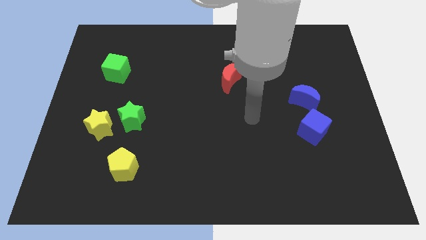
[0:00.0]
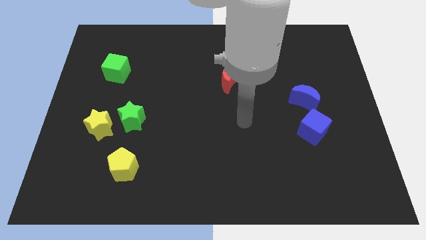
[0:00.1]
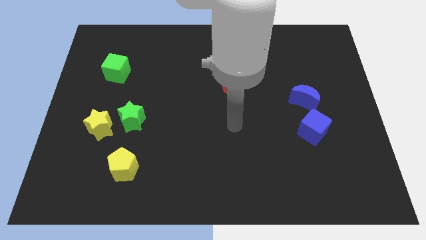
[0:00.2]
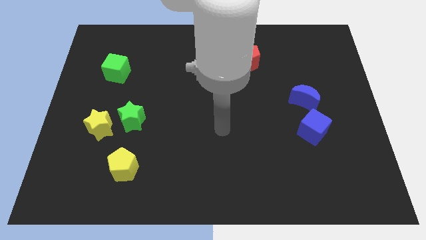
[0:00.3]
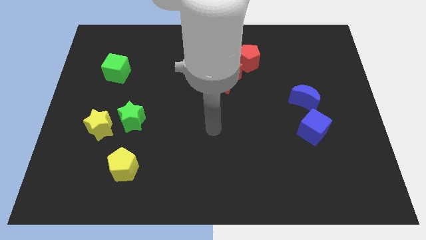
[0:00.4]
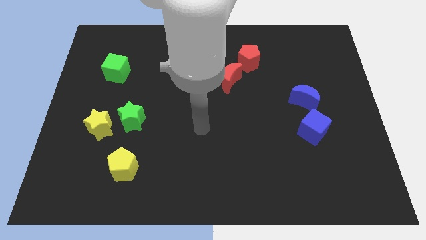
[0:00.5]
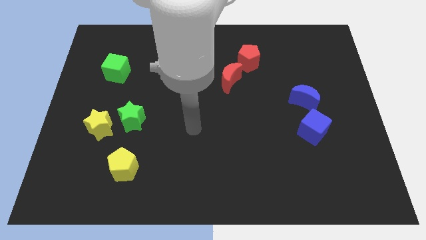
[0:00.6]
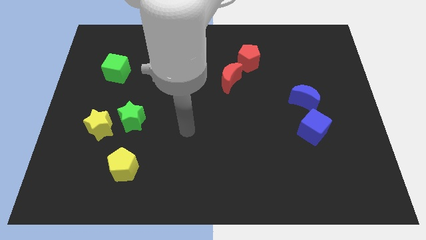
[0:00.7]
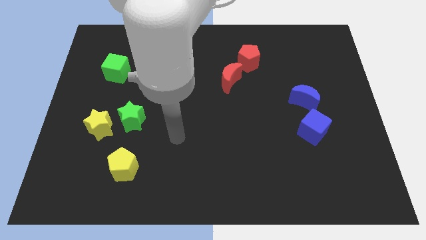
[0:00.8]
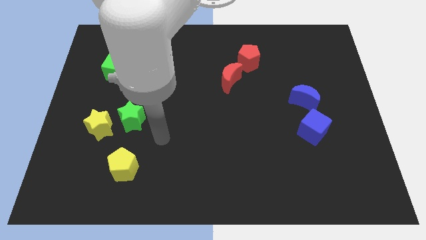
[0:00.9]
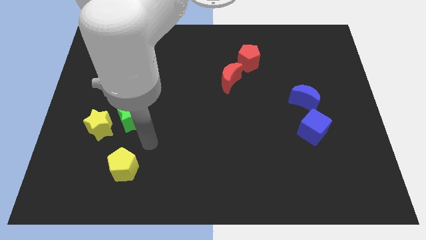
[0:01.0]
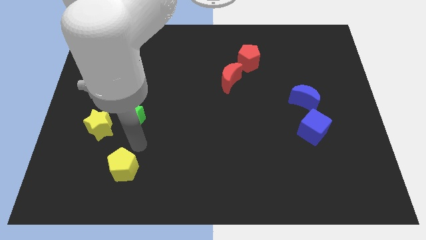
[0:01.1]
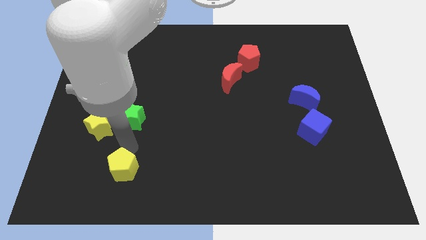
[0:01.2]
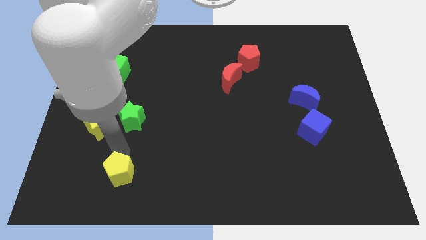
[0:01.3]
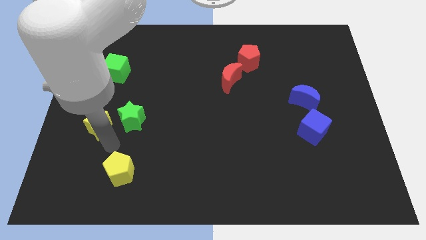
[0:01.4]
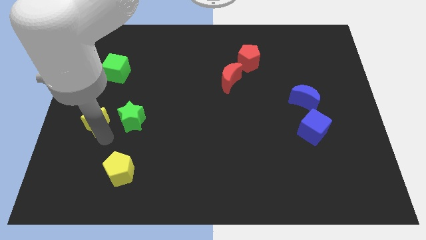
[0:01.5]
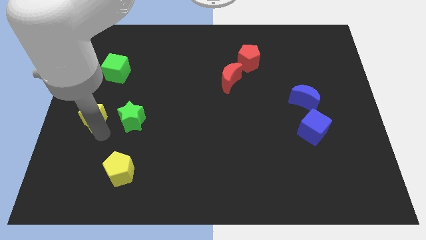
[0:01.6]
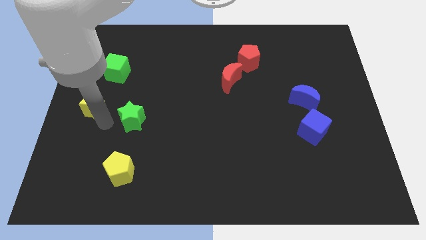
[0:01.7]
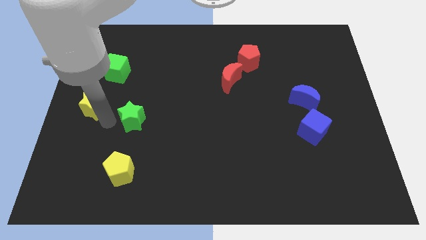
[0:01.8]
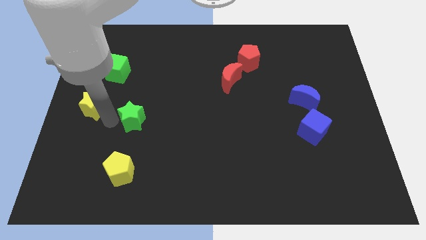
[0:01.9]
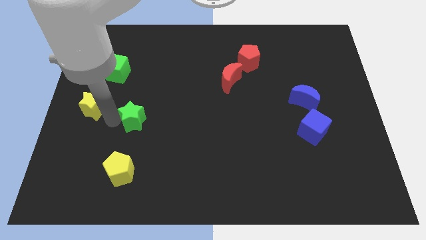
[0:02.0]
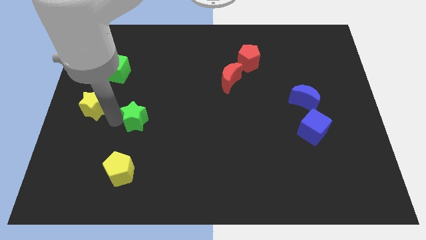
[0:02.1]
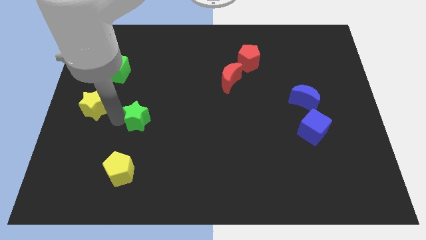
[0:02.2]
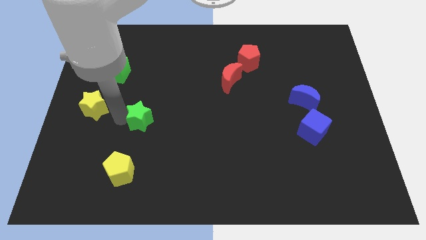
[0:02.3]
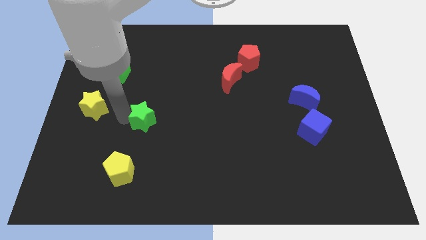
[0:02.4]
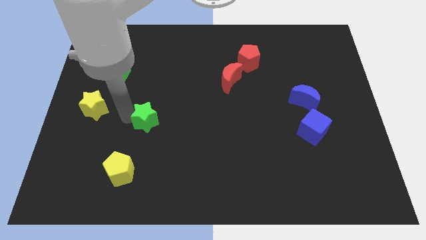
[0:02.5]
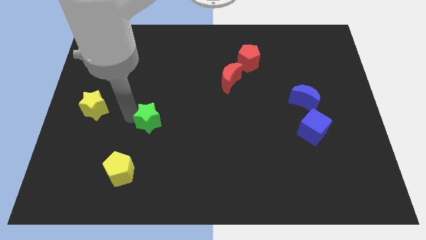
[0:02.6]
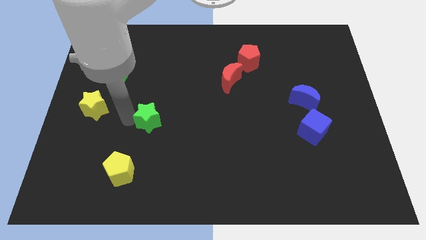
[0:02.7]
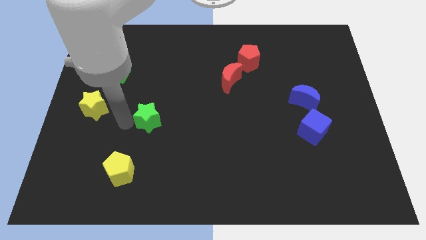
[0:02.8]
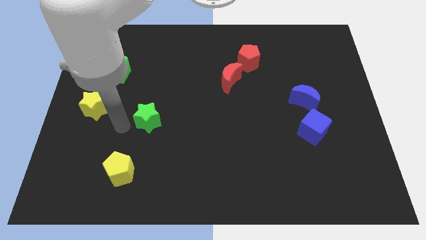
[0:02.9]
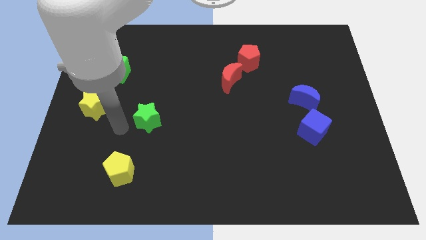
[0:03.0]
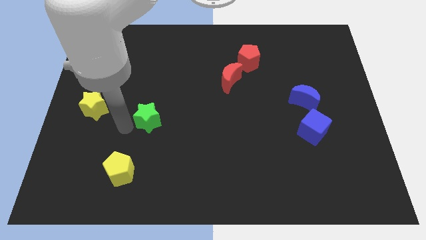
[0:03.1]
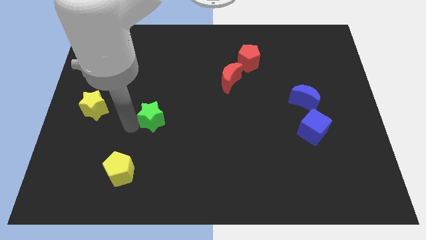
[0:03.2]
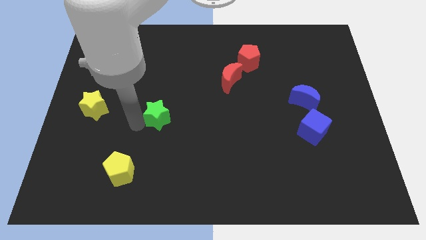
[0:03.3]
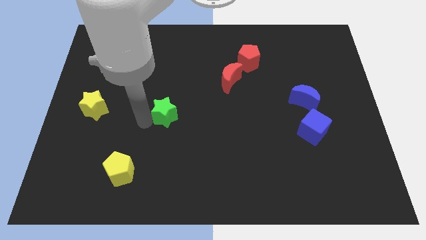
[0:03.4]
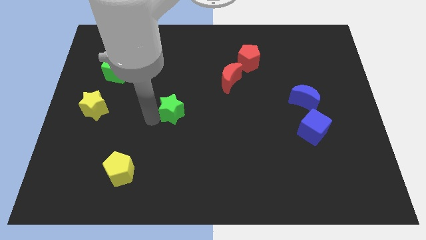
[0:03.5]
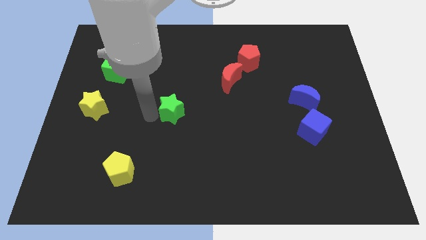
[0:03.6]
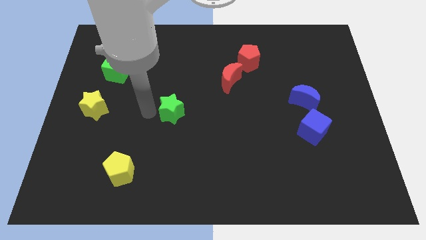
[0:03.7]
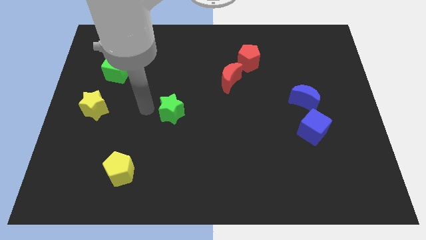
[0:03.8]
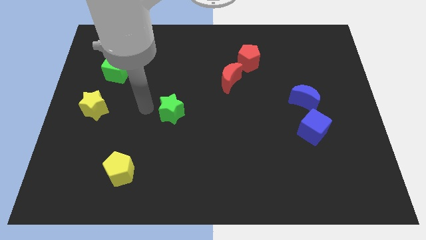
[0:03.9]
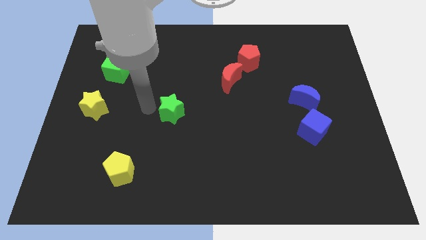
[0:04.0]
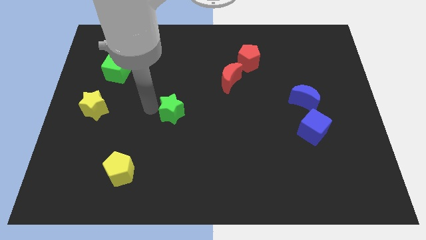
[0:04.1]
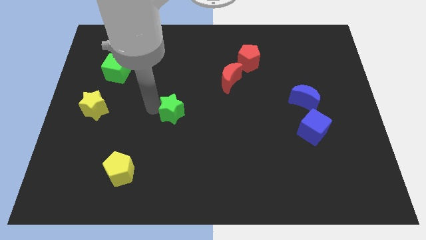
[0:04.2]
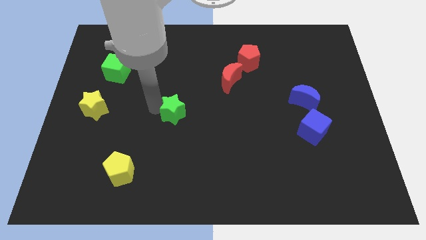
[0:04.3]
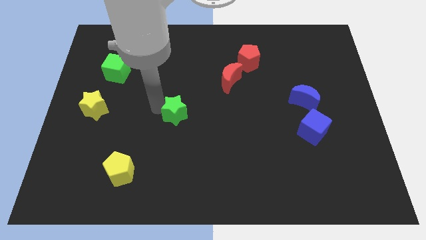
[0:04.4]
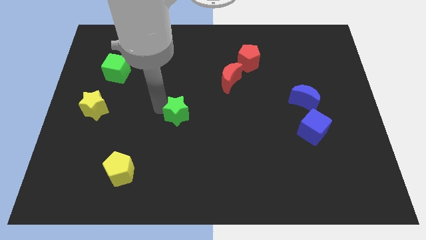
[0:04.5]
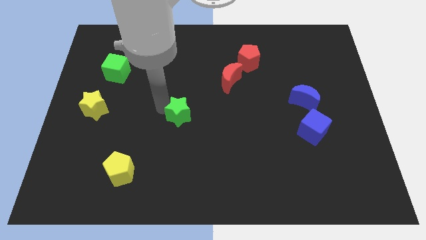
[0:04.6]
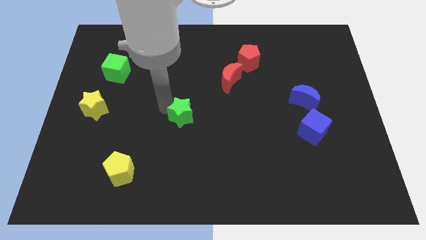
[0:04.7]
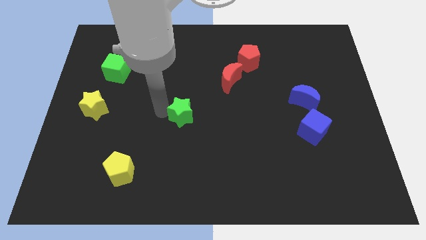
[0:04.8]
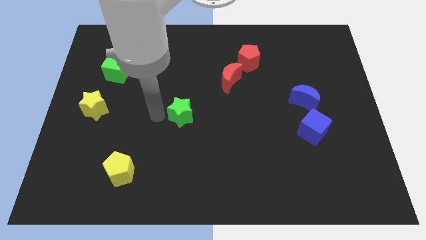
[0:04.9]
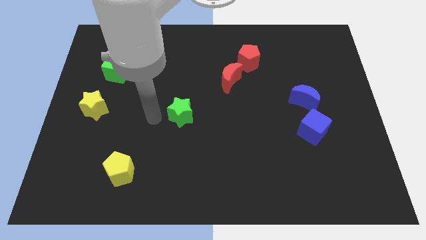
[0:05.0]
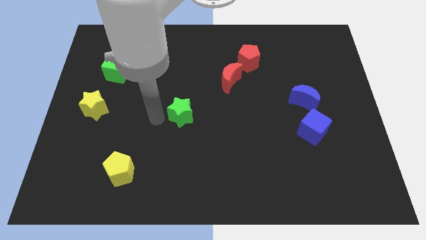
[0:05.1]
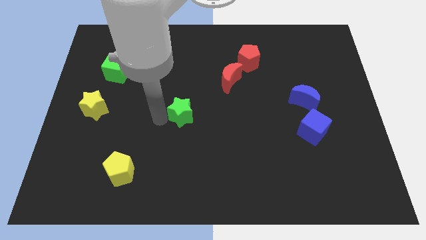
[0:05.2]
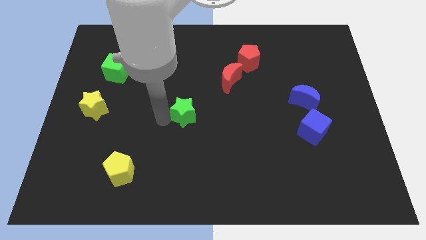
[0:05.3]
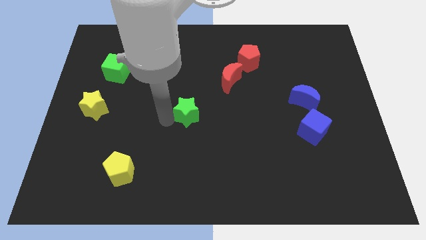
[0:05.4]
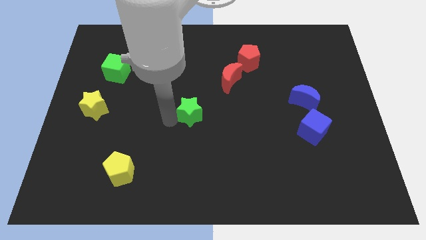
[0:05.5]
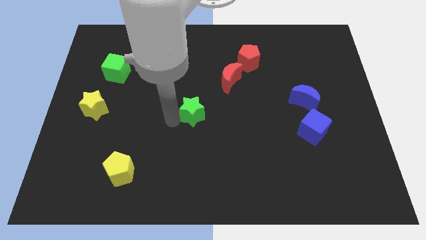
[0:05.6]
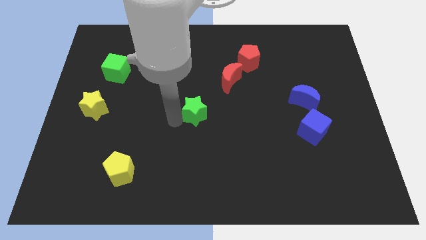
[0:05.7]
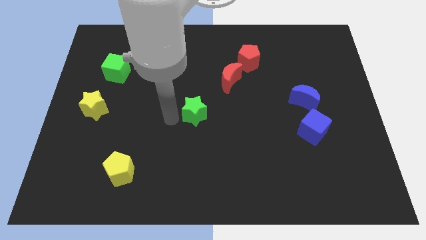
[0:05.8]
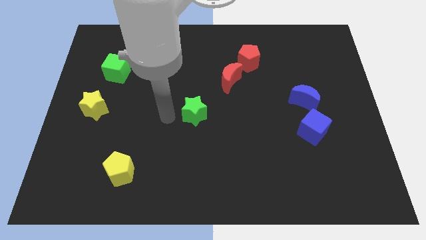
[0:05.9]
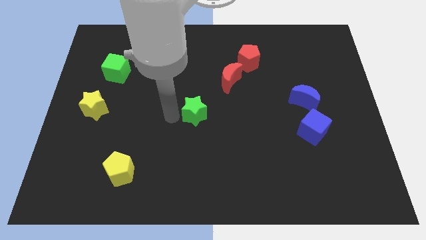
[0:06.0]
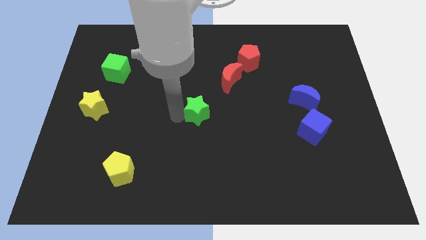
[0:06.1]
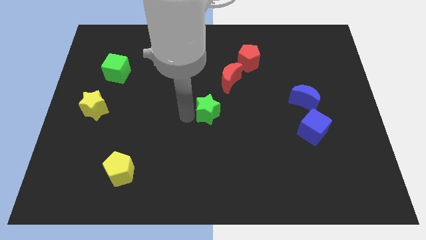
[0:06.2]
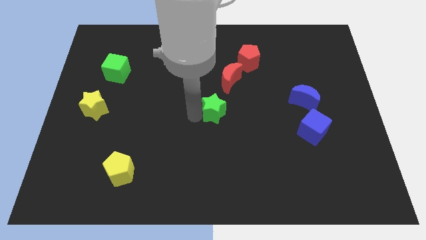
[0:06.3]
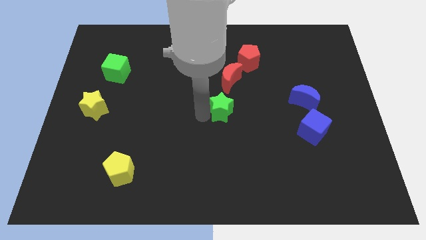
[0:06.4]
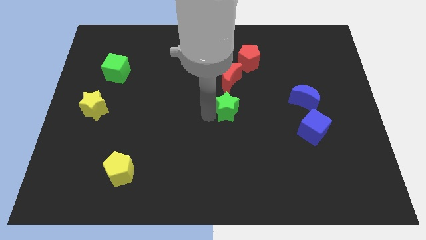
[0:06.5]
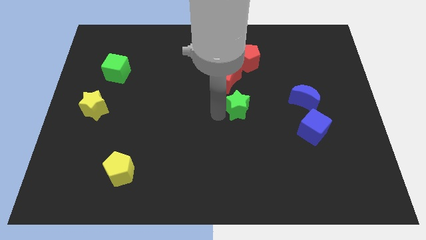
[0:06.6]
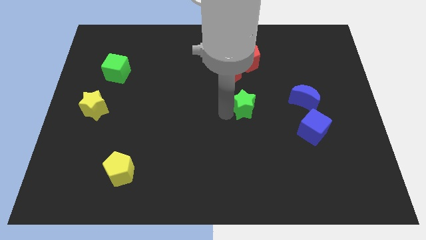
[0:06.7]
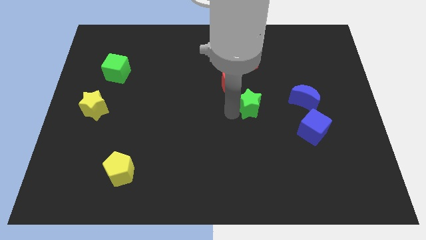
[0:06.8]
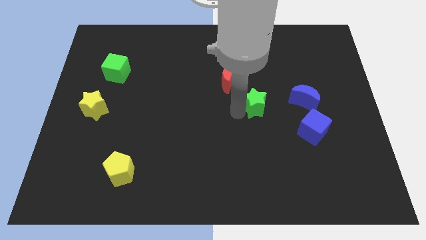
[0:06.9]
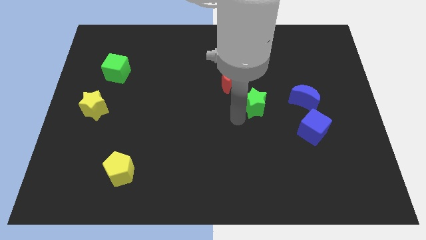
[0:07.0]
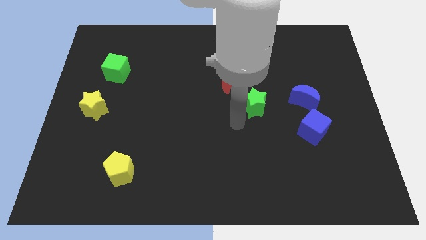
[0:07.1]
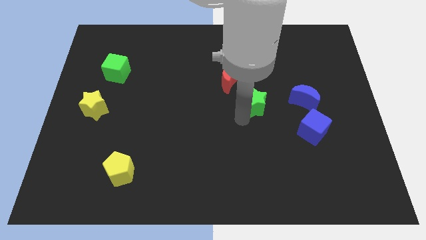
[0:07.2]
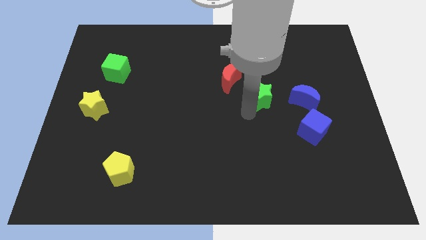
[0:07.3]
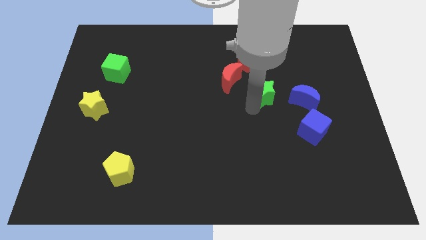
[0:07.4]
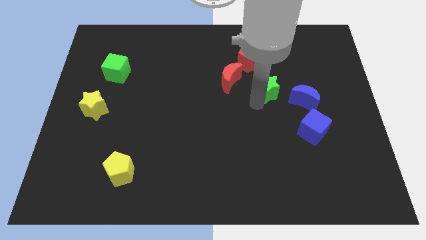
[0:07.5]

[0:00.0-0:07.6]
push the green star diagonally up and to the left of the blue moon

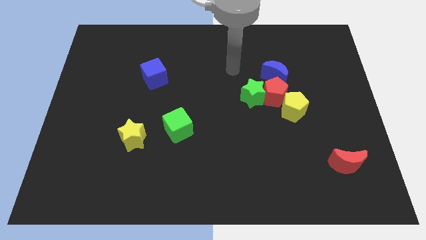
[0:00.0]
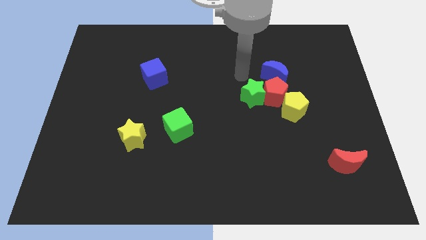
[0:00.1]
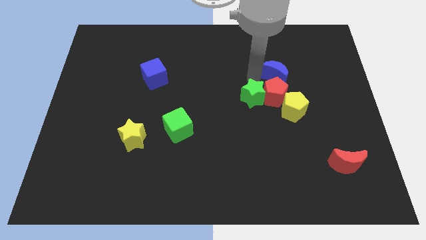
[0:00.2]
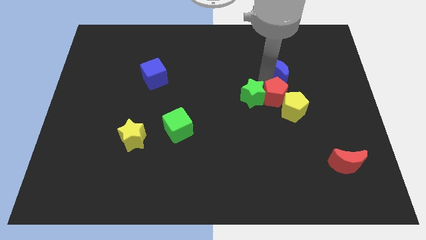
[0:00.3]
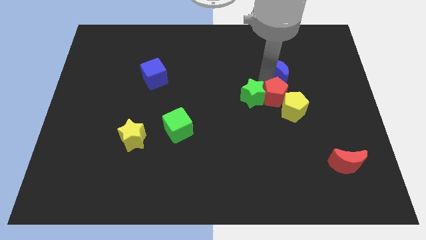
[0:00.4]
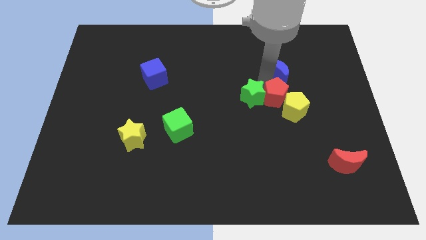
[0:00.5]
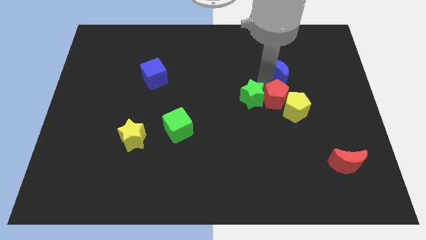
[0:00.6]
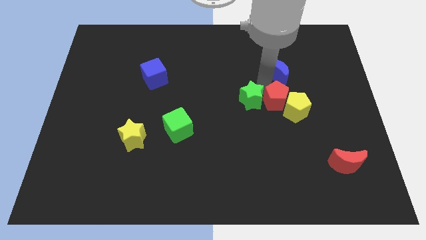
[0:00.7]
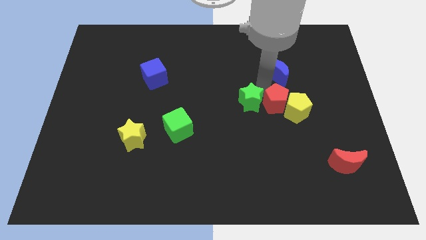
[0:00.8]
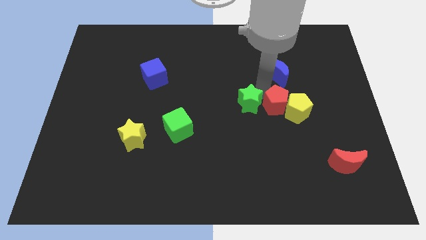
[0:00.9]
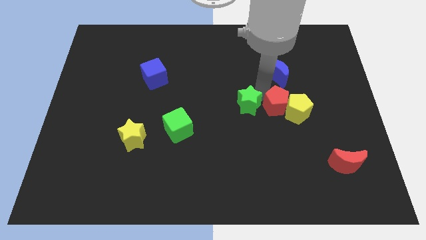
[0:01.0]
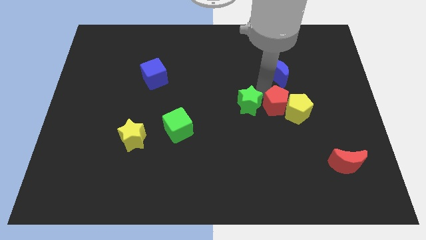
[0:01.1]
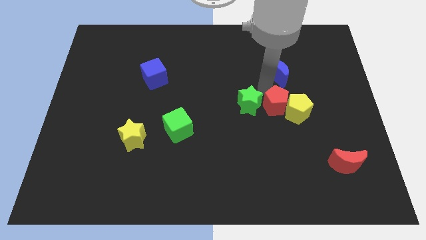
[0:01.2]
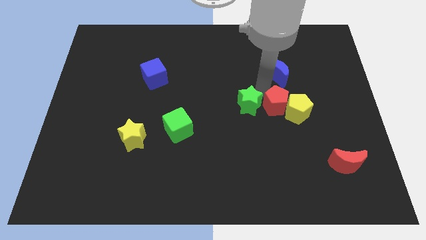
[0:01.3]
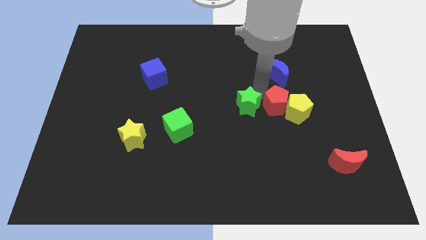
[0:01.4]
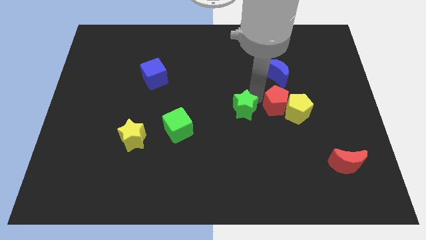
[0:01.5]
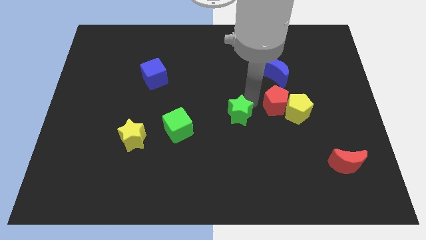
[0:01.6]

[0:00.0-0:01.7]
push the green star just right of the green cube
